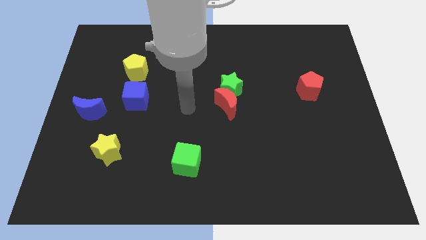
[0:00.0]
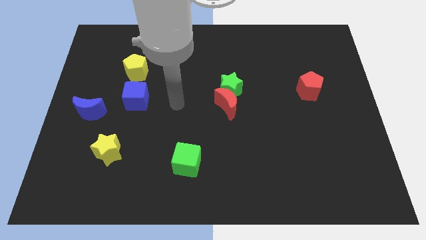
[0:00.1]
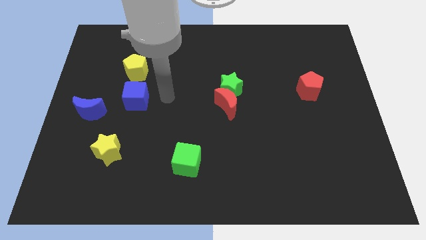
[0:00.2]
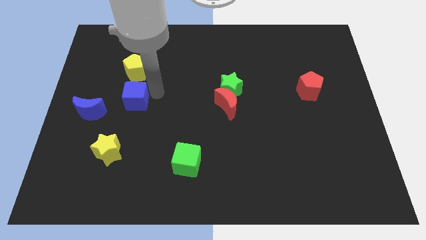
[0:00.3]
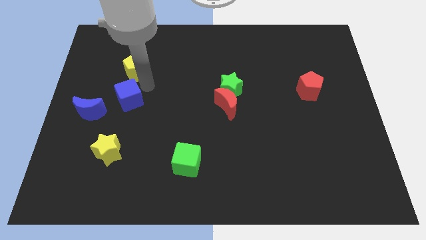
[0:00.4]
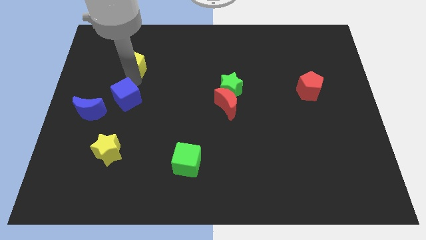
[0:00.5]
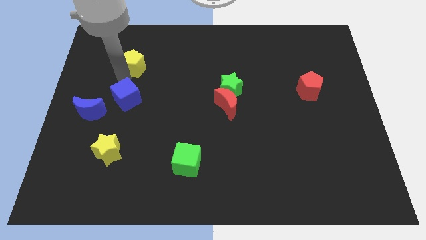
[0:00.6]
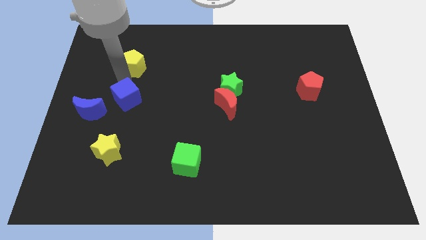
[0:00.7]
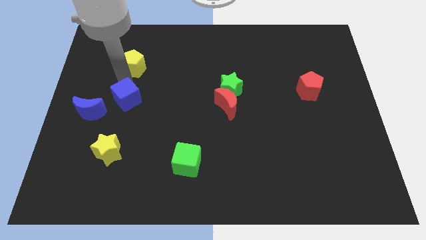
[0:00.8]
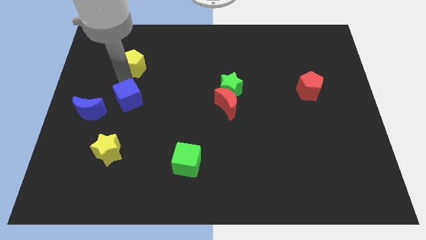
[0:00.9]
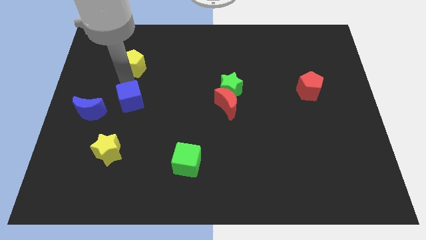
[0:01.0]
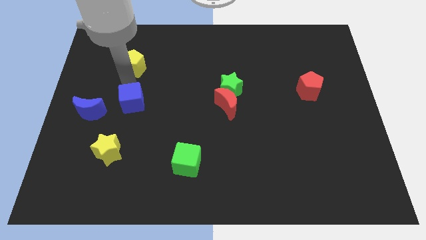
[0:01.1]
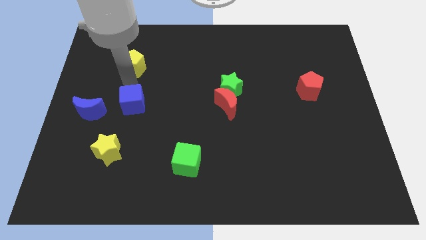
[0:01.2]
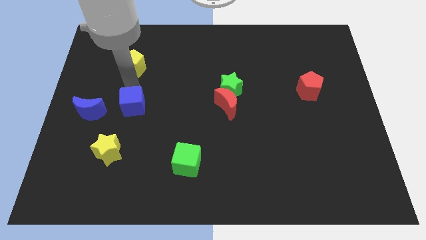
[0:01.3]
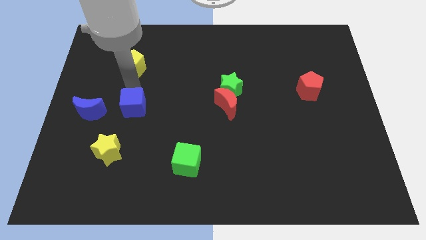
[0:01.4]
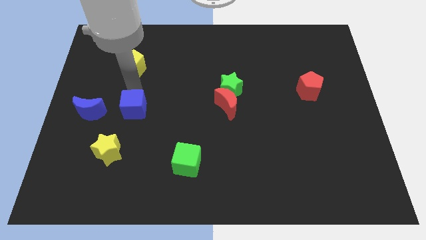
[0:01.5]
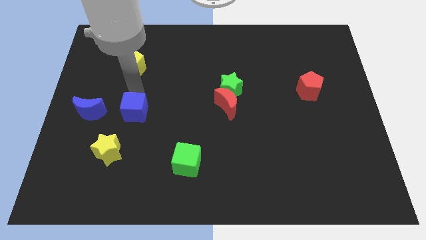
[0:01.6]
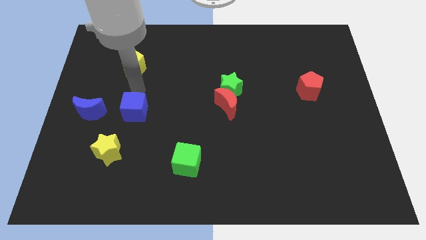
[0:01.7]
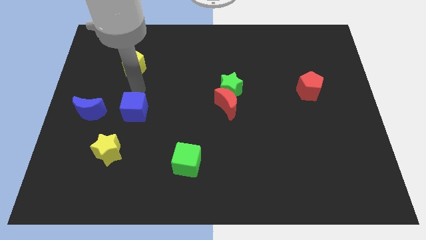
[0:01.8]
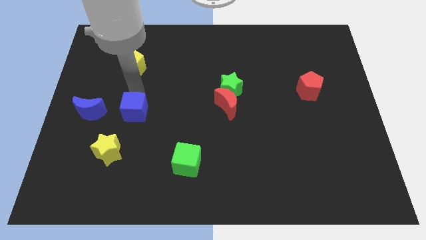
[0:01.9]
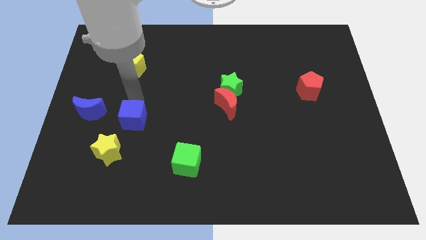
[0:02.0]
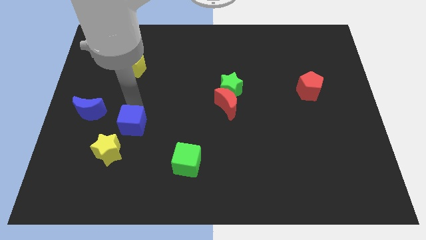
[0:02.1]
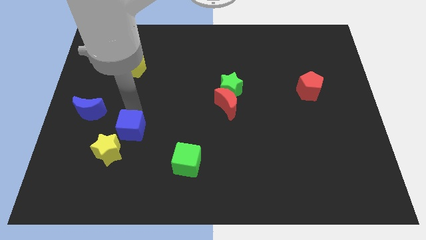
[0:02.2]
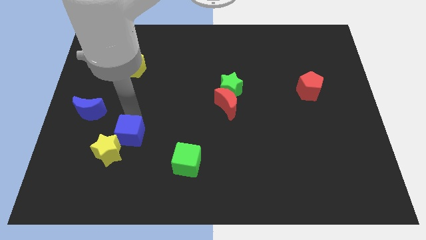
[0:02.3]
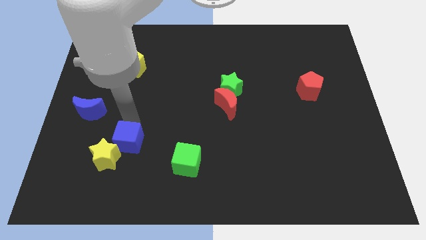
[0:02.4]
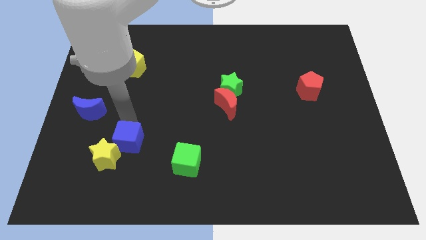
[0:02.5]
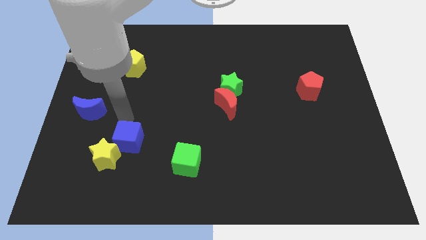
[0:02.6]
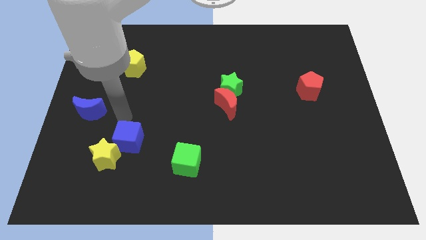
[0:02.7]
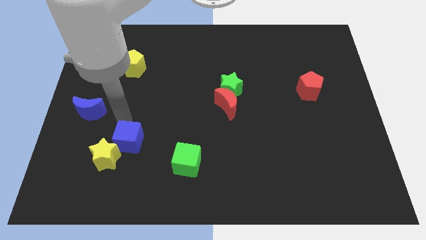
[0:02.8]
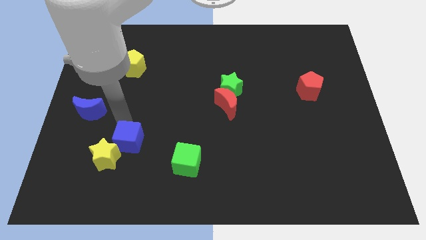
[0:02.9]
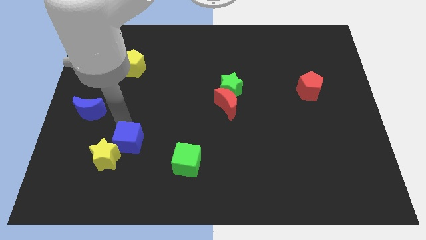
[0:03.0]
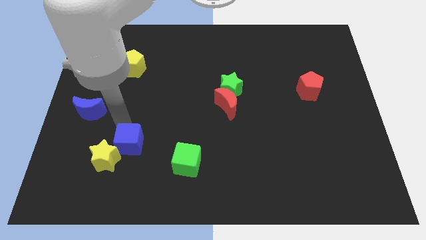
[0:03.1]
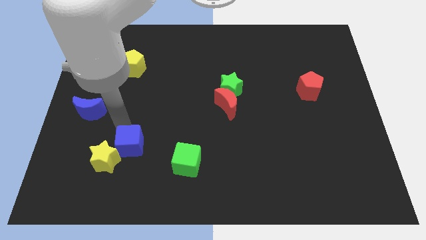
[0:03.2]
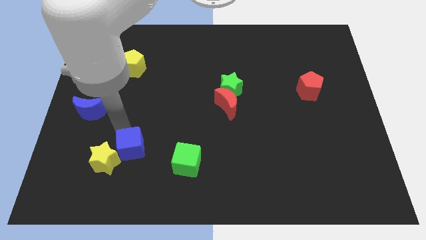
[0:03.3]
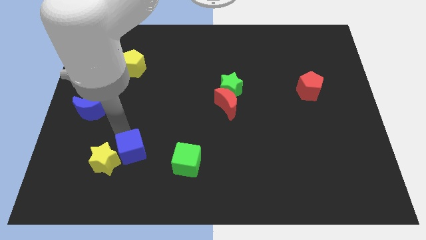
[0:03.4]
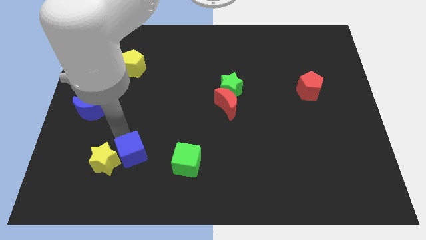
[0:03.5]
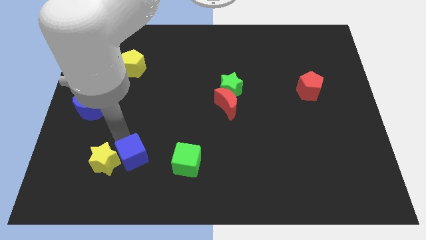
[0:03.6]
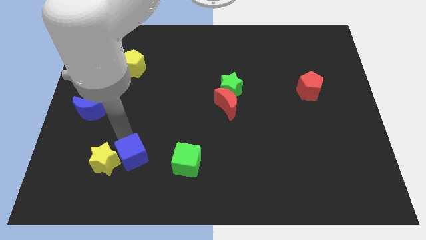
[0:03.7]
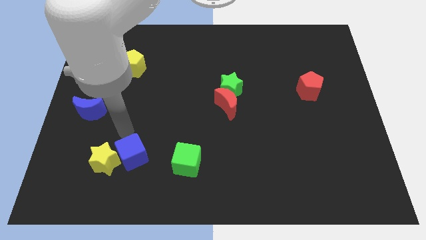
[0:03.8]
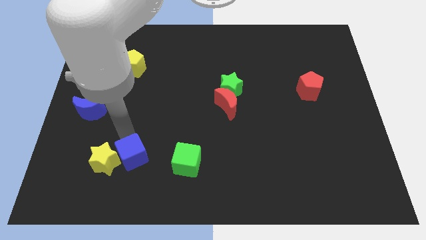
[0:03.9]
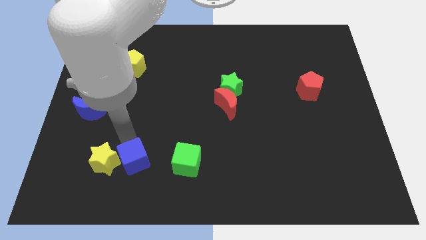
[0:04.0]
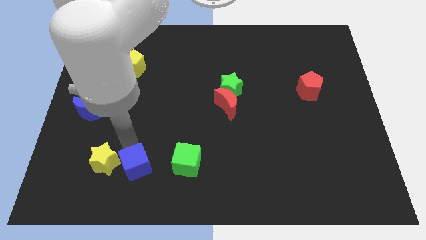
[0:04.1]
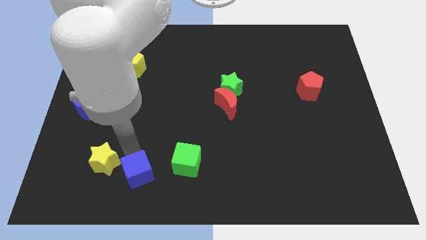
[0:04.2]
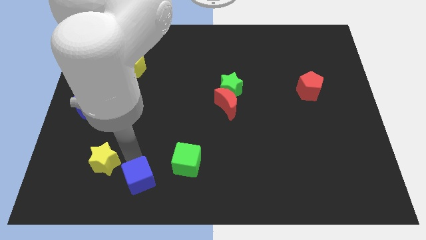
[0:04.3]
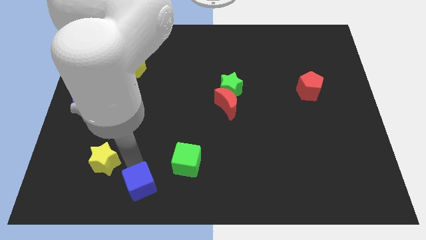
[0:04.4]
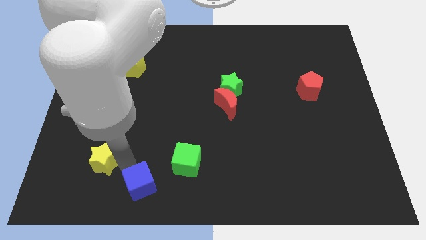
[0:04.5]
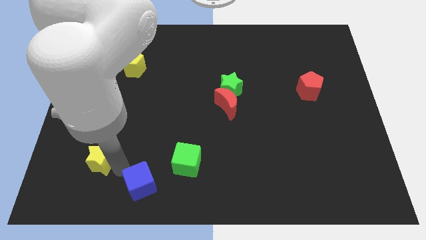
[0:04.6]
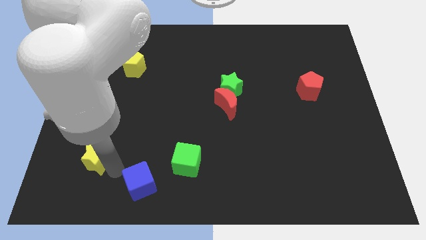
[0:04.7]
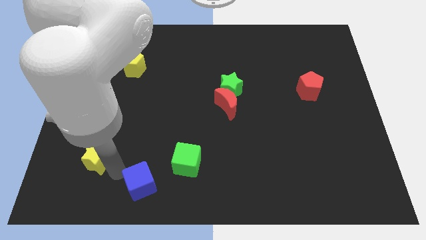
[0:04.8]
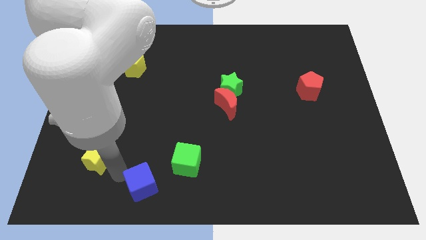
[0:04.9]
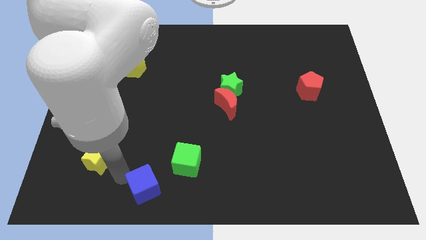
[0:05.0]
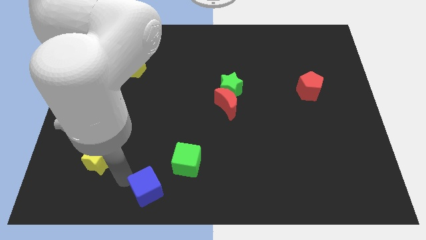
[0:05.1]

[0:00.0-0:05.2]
push the blue cube to the bottom side

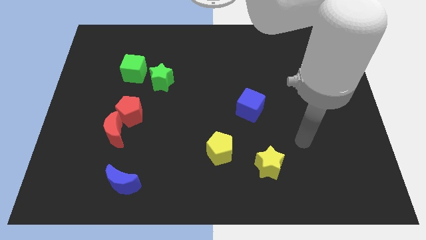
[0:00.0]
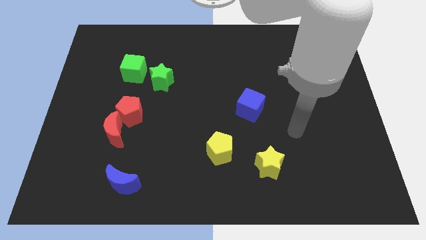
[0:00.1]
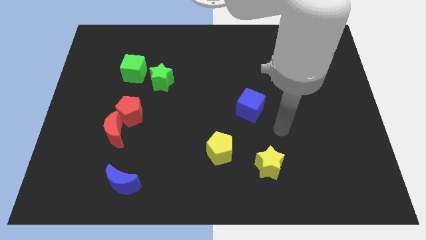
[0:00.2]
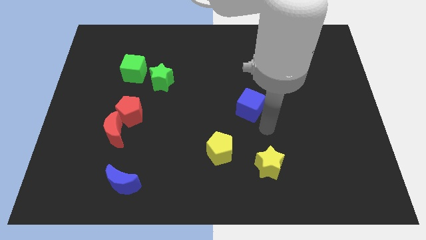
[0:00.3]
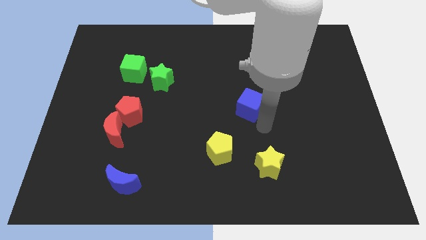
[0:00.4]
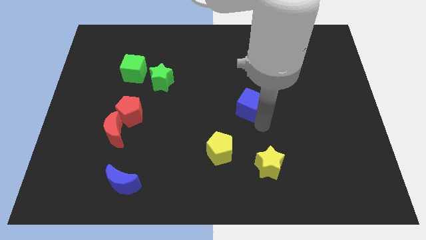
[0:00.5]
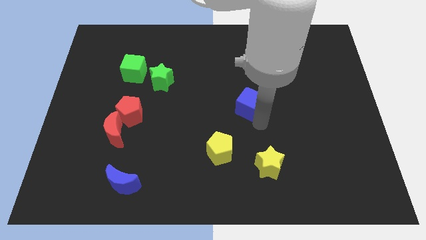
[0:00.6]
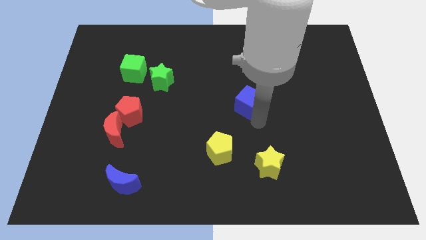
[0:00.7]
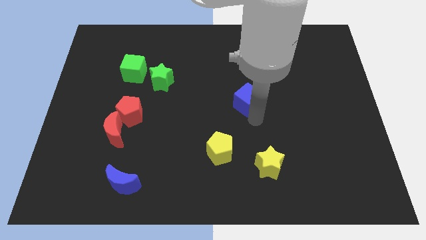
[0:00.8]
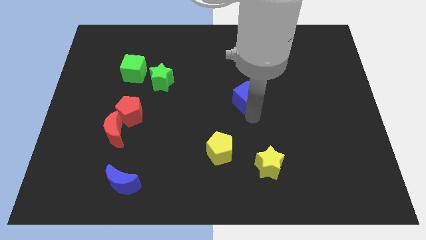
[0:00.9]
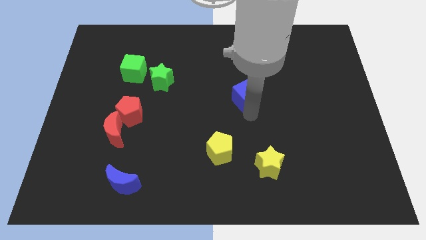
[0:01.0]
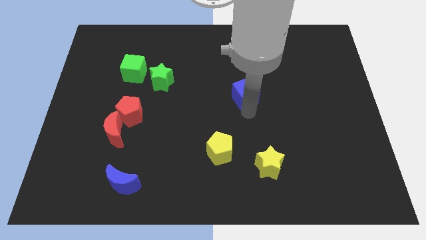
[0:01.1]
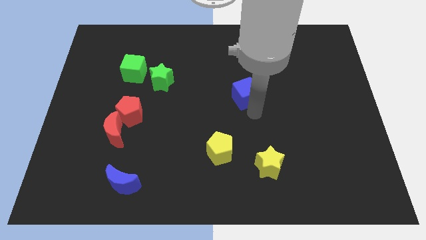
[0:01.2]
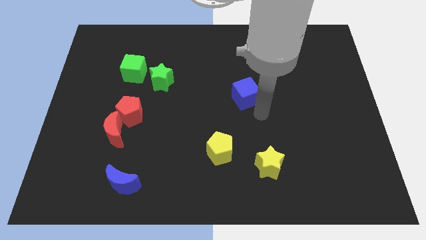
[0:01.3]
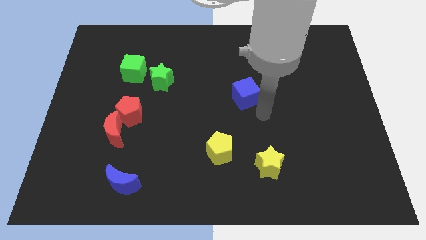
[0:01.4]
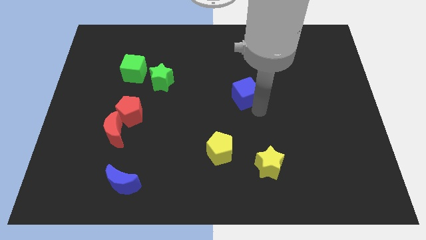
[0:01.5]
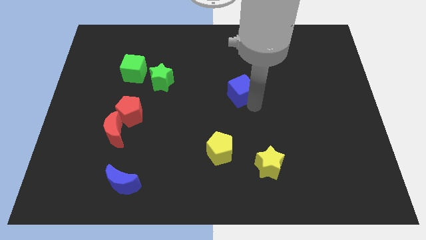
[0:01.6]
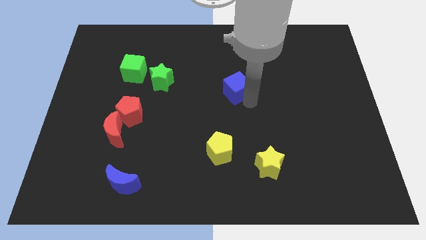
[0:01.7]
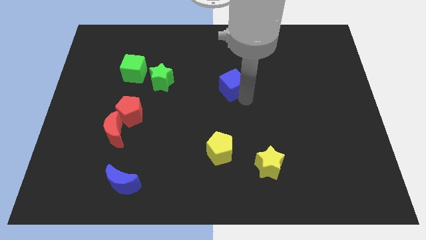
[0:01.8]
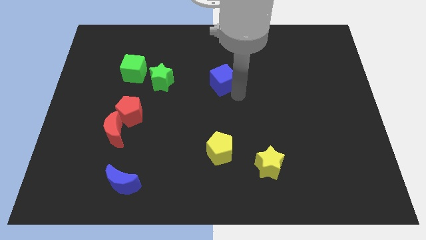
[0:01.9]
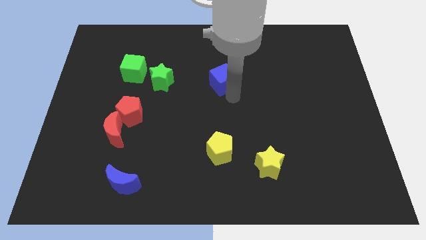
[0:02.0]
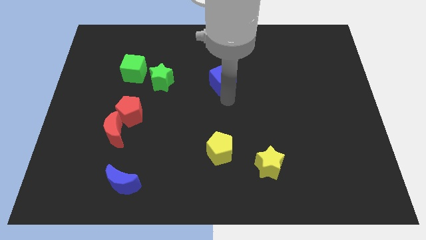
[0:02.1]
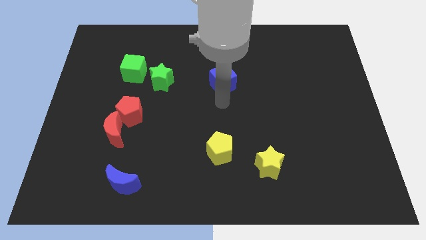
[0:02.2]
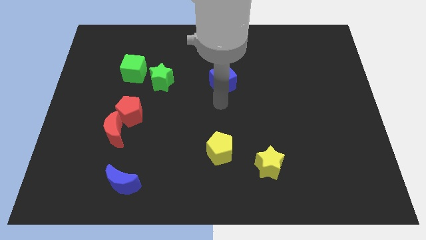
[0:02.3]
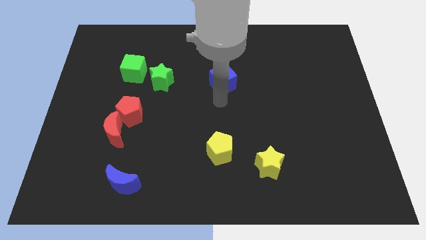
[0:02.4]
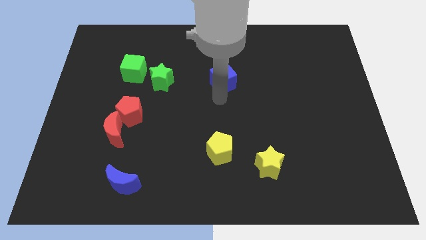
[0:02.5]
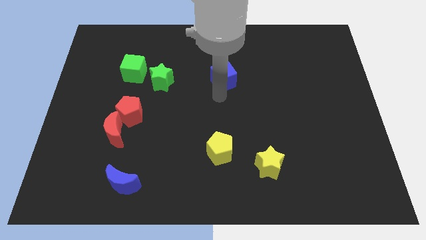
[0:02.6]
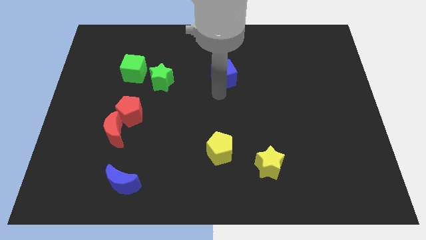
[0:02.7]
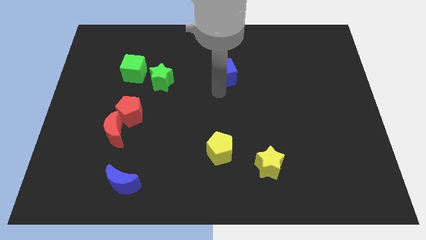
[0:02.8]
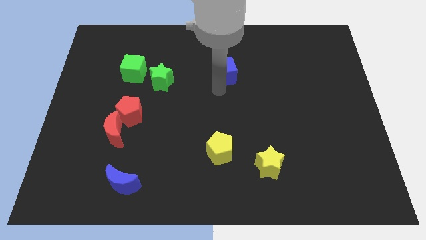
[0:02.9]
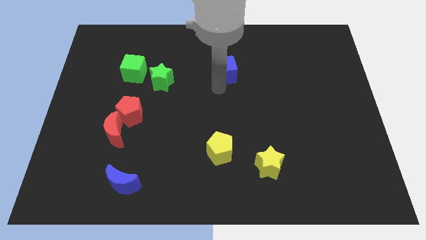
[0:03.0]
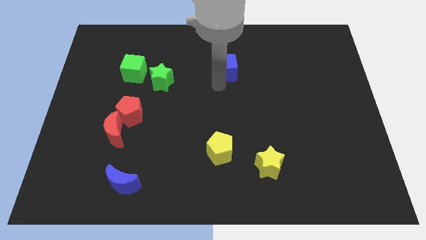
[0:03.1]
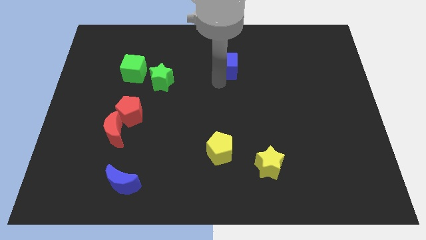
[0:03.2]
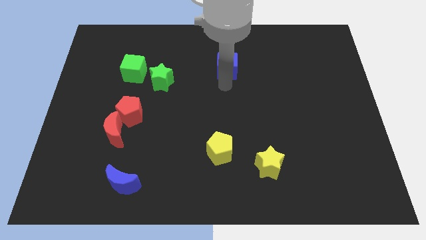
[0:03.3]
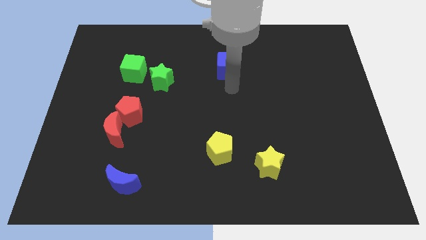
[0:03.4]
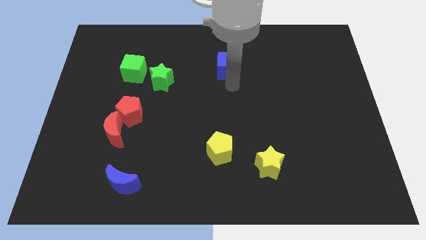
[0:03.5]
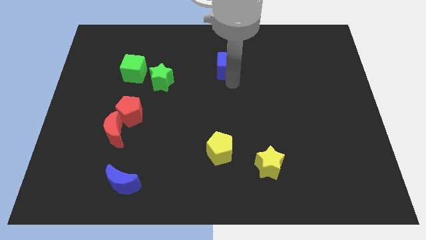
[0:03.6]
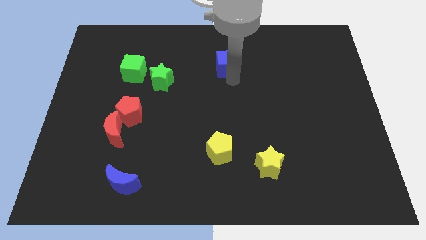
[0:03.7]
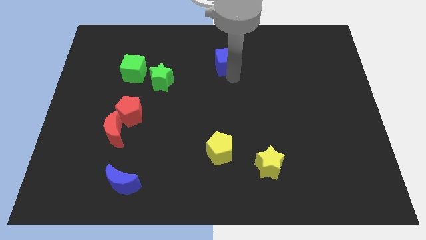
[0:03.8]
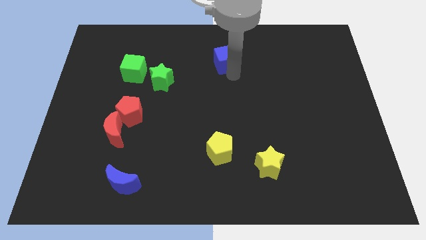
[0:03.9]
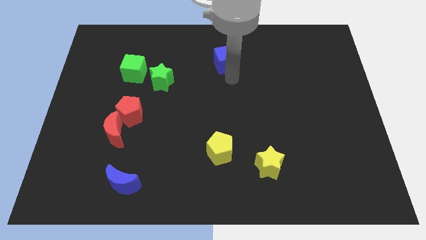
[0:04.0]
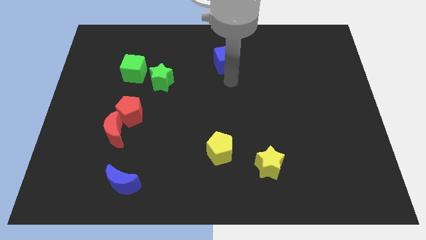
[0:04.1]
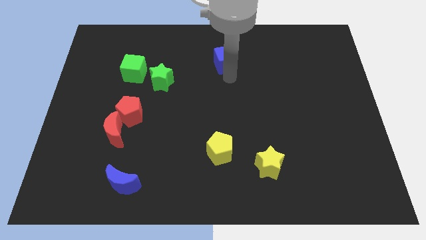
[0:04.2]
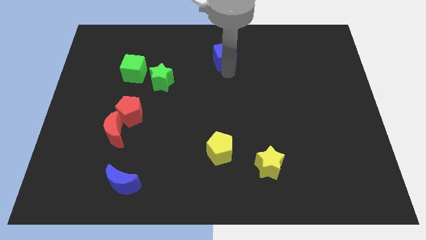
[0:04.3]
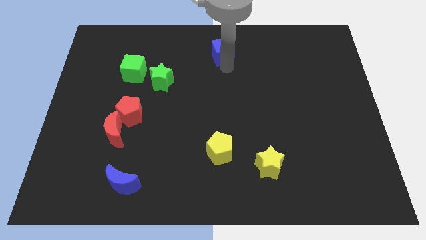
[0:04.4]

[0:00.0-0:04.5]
push the blue cube to the top side
